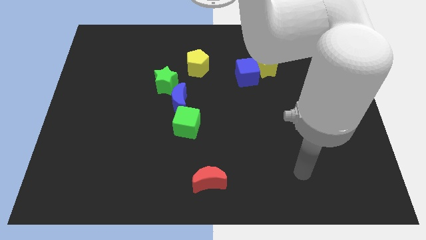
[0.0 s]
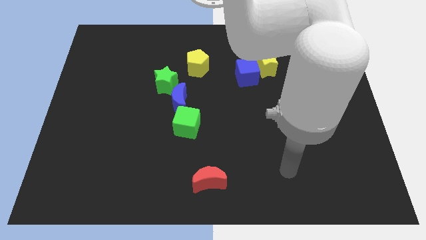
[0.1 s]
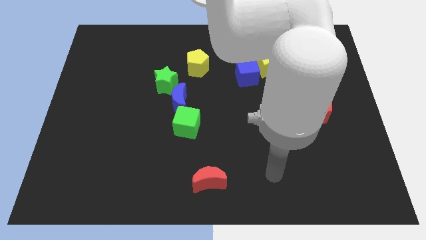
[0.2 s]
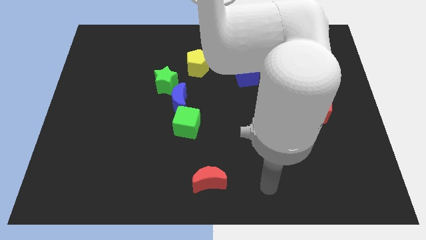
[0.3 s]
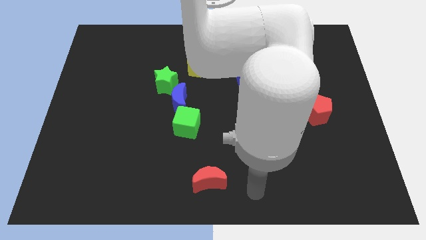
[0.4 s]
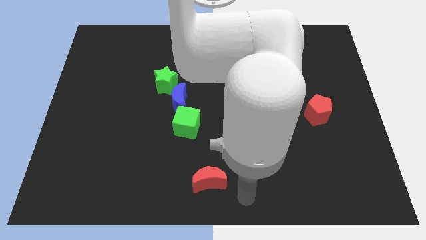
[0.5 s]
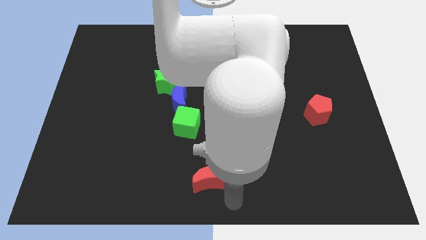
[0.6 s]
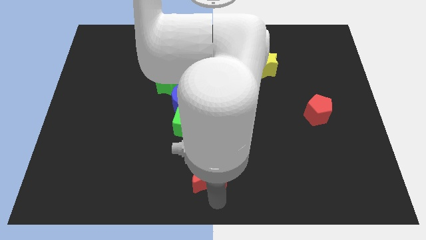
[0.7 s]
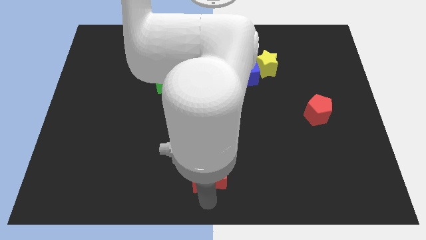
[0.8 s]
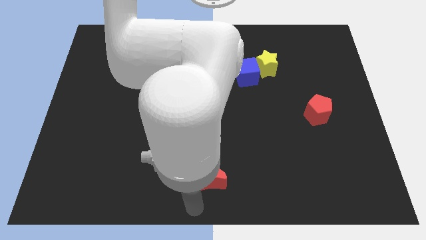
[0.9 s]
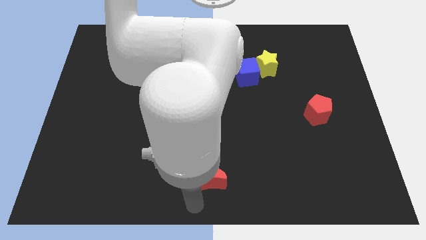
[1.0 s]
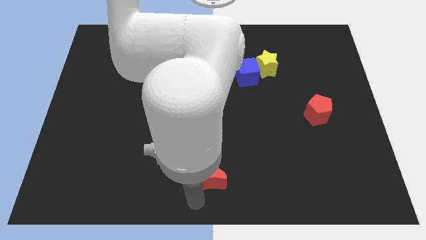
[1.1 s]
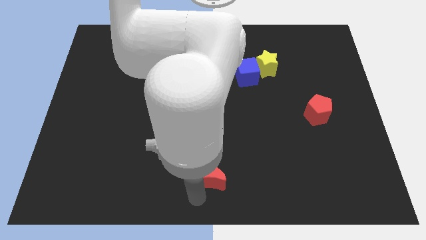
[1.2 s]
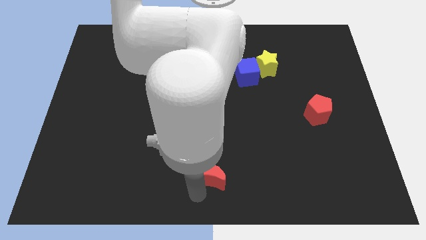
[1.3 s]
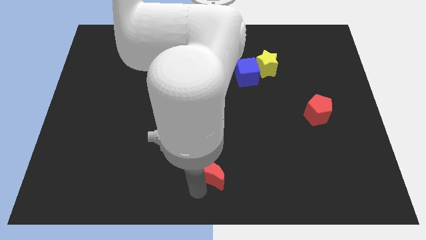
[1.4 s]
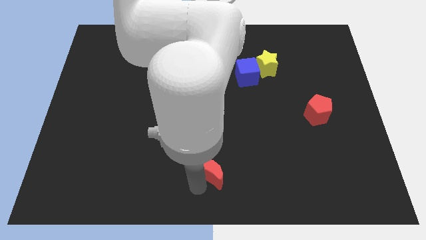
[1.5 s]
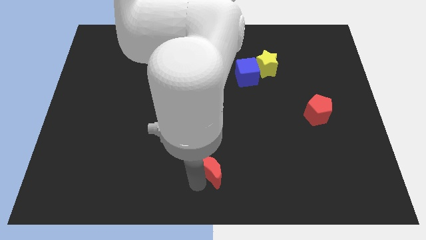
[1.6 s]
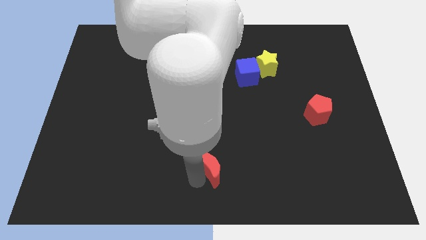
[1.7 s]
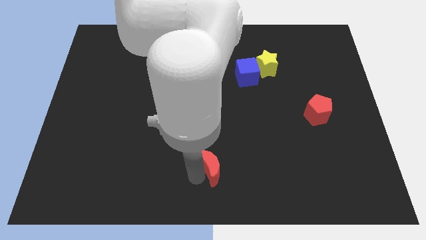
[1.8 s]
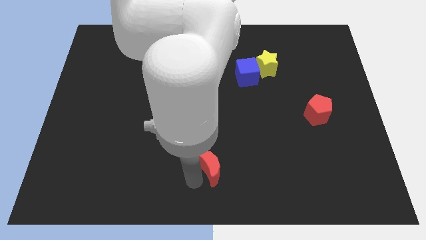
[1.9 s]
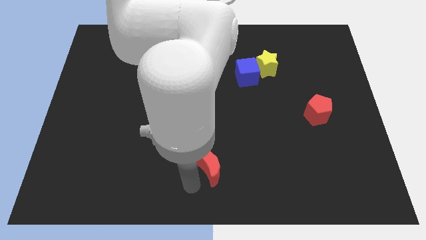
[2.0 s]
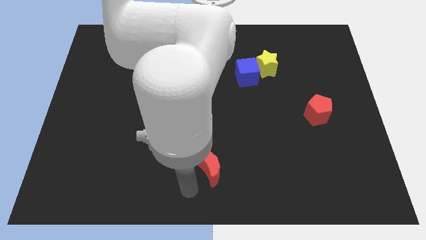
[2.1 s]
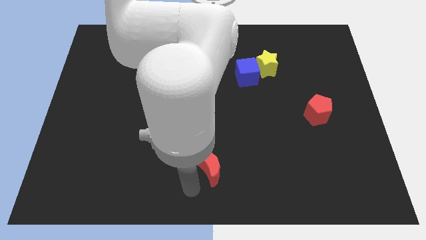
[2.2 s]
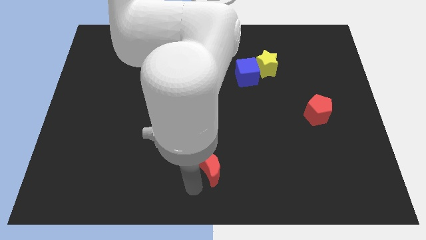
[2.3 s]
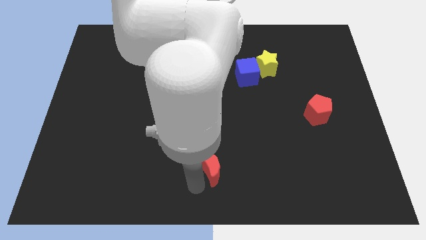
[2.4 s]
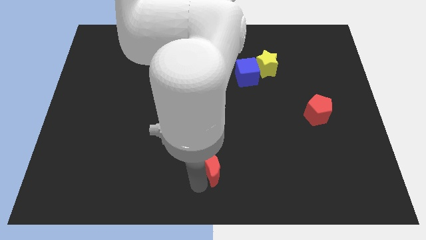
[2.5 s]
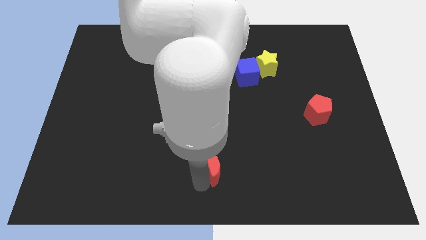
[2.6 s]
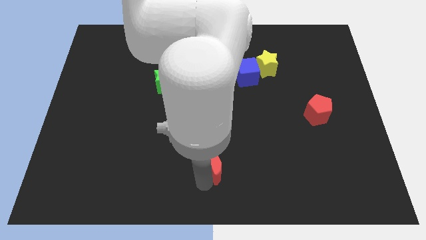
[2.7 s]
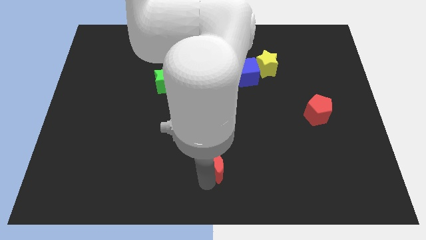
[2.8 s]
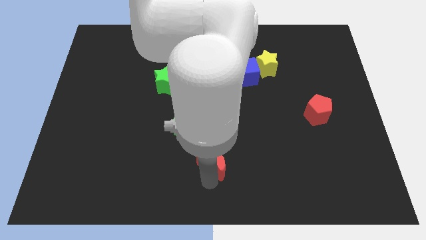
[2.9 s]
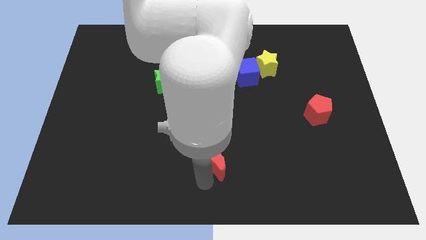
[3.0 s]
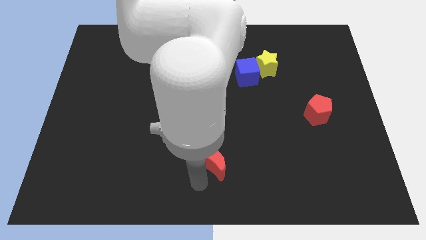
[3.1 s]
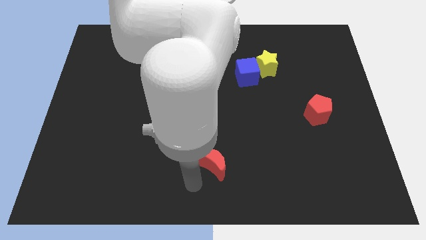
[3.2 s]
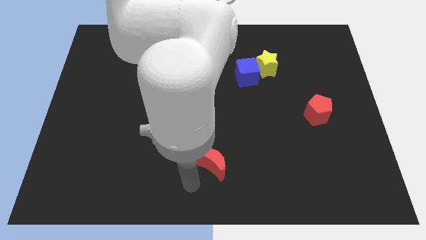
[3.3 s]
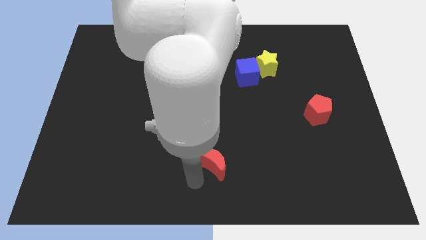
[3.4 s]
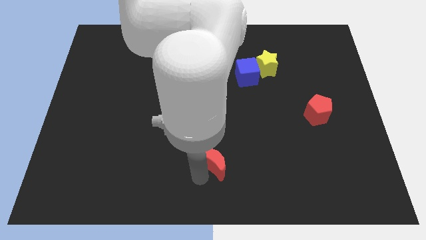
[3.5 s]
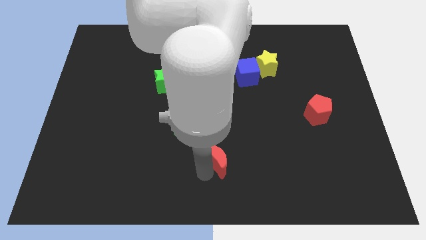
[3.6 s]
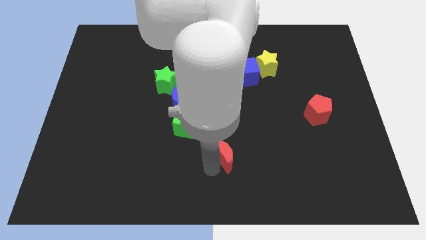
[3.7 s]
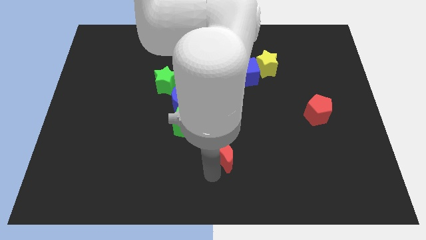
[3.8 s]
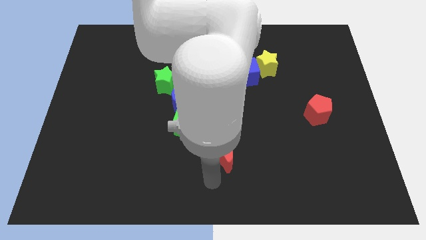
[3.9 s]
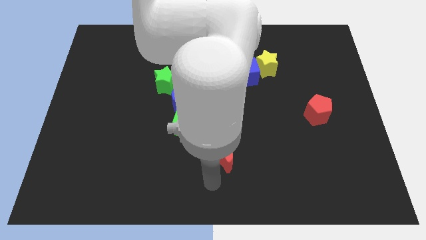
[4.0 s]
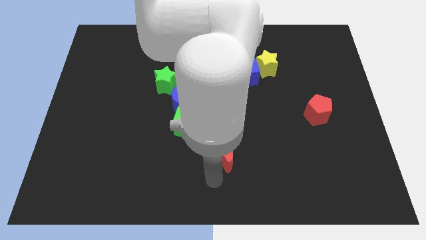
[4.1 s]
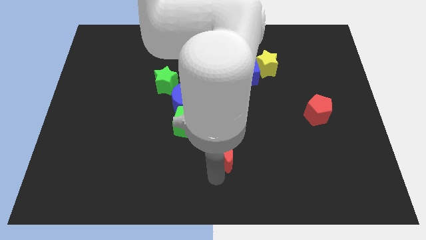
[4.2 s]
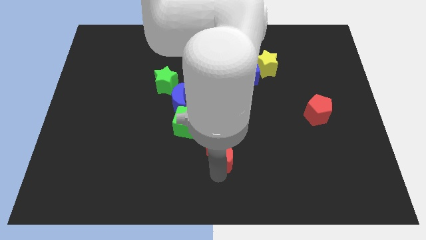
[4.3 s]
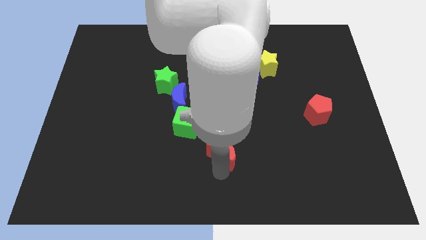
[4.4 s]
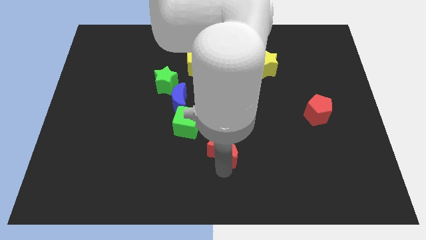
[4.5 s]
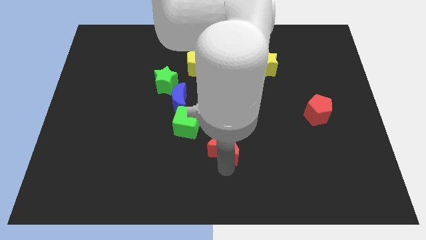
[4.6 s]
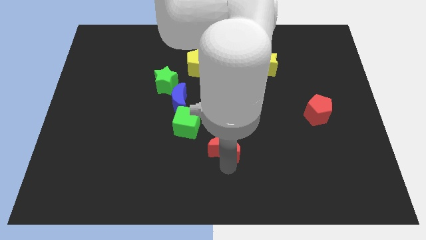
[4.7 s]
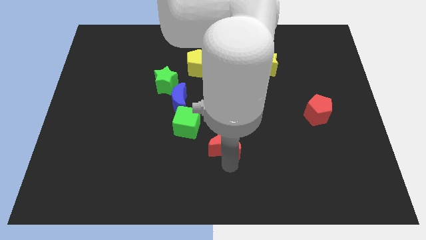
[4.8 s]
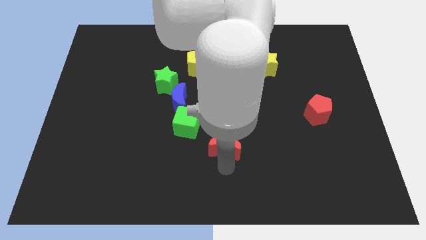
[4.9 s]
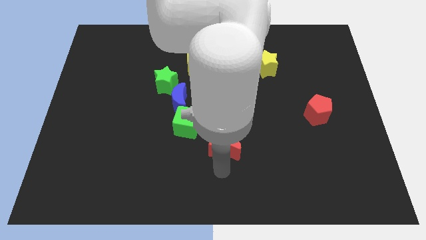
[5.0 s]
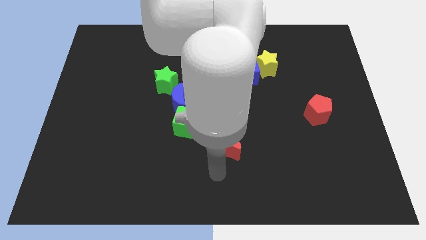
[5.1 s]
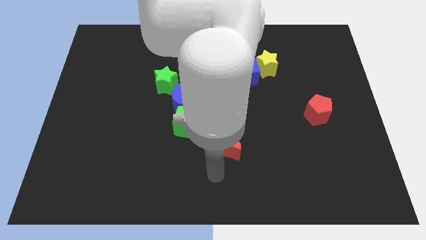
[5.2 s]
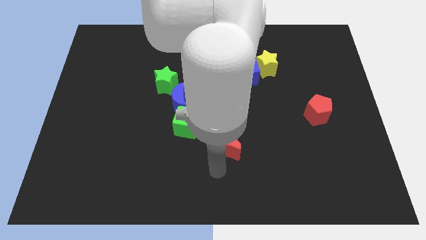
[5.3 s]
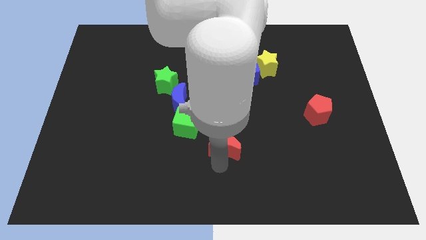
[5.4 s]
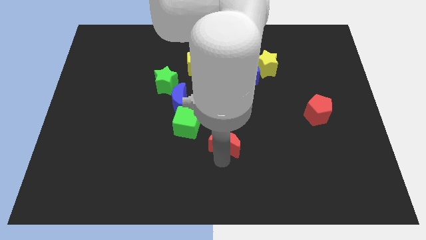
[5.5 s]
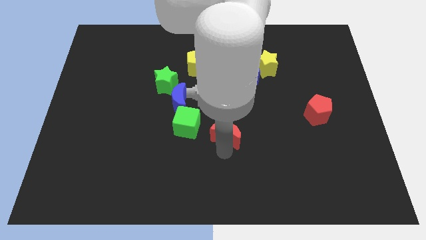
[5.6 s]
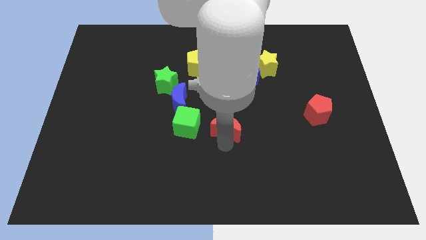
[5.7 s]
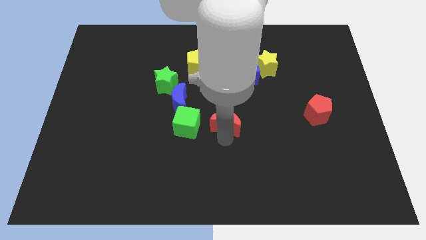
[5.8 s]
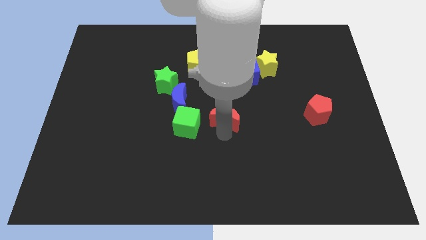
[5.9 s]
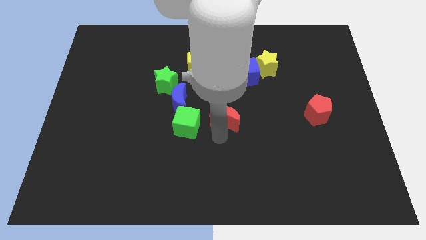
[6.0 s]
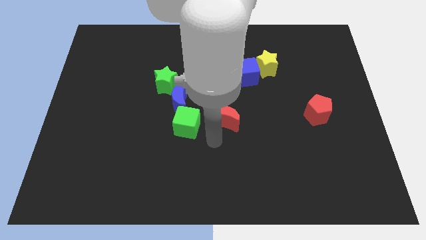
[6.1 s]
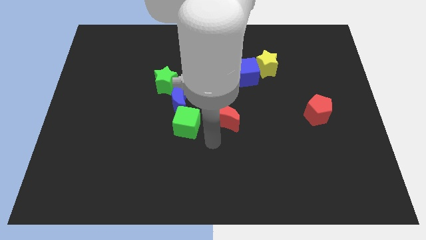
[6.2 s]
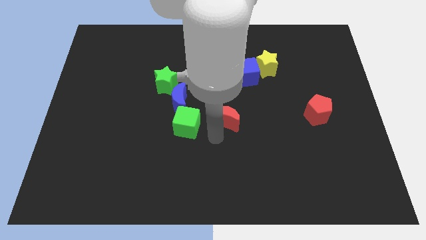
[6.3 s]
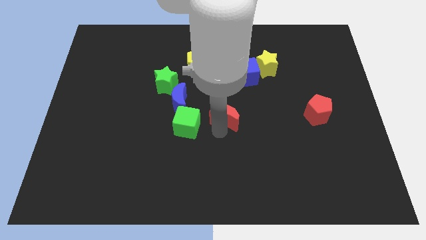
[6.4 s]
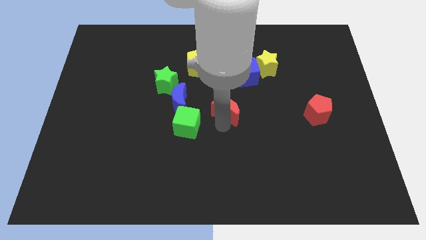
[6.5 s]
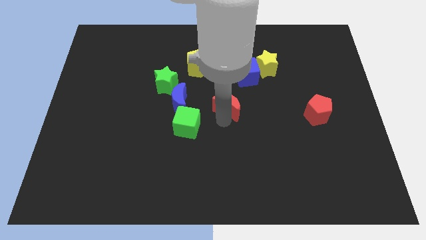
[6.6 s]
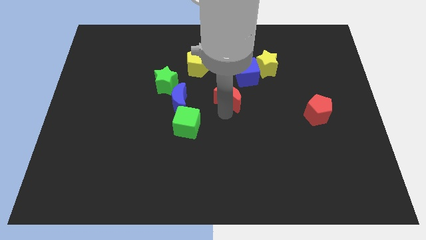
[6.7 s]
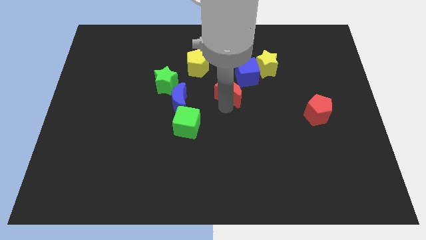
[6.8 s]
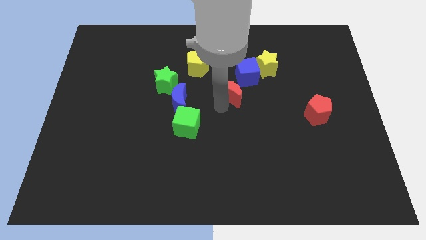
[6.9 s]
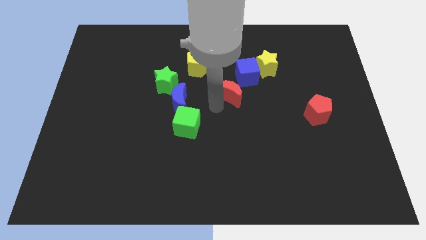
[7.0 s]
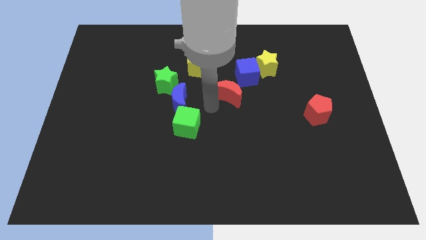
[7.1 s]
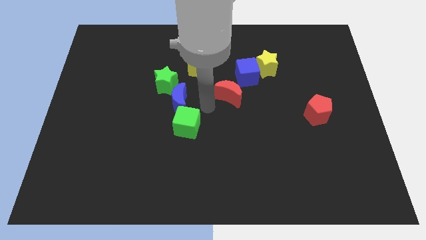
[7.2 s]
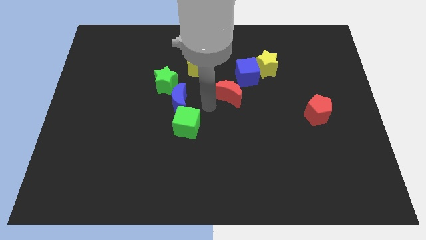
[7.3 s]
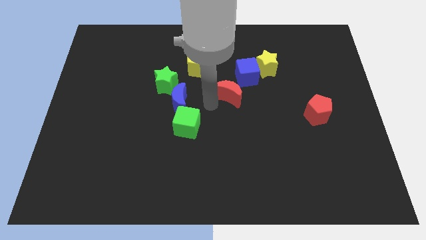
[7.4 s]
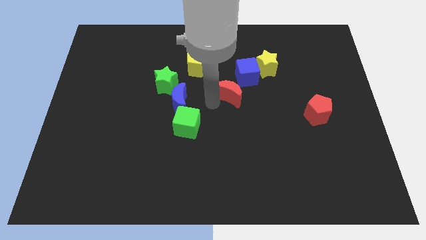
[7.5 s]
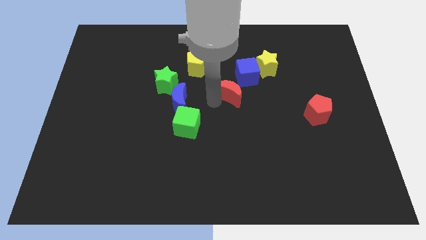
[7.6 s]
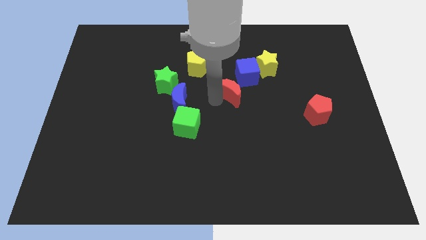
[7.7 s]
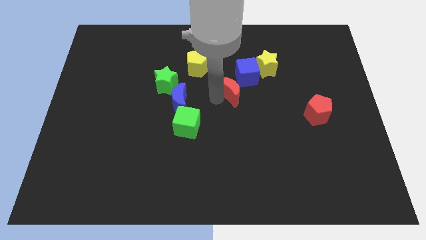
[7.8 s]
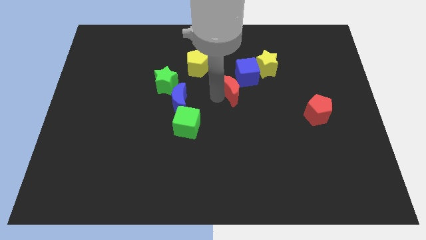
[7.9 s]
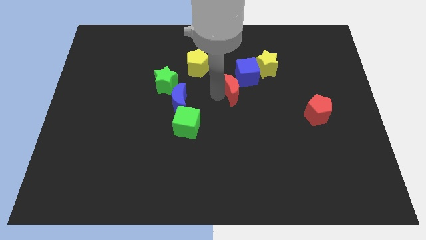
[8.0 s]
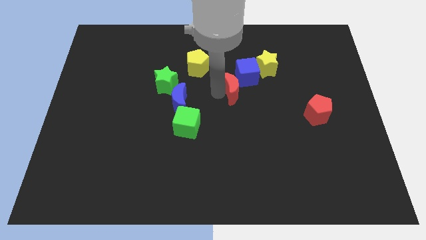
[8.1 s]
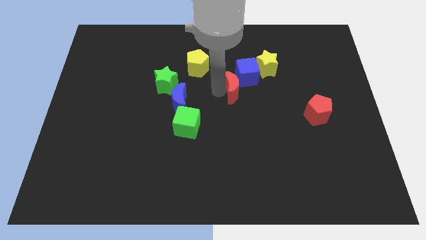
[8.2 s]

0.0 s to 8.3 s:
move the red moon towards the blue cube
